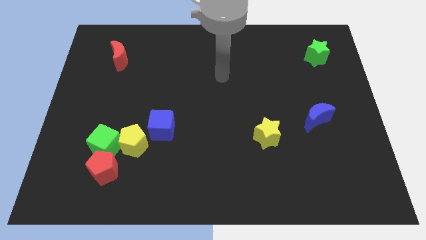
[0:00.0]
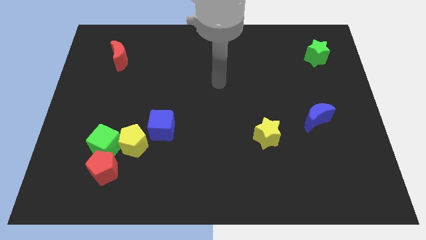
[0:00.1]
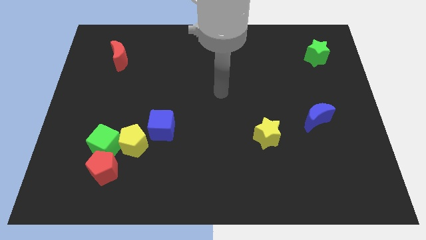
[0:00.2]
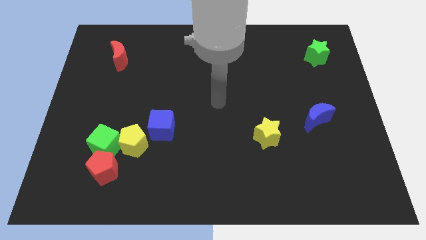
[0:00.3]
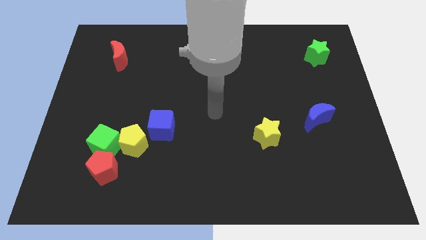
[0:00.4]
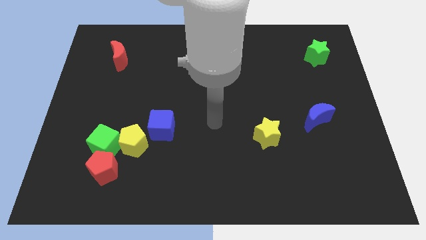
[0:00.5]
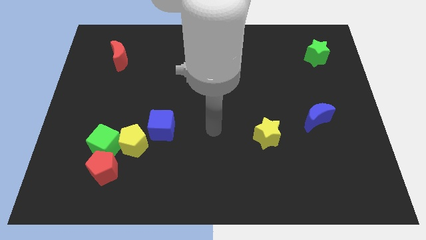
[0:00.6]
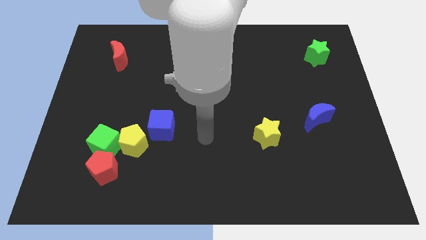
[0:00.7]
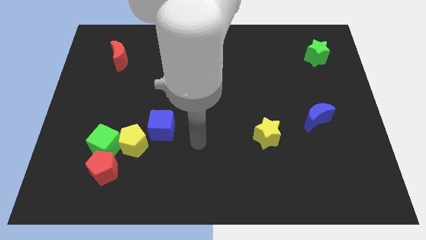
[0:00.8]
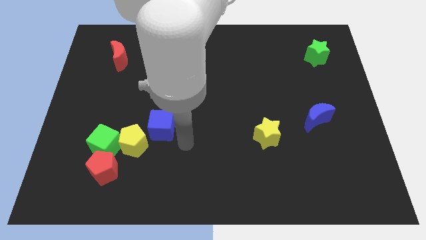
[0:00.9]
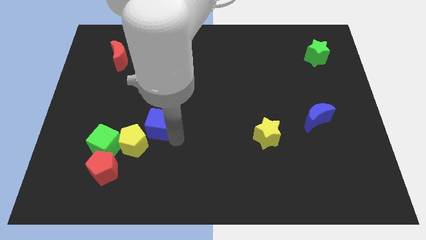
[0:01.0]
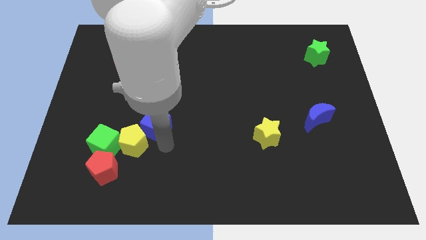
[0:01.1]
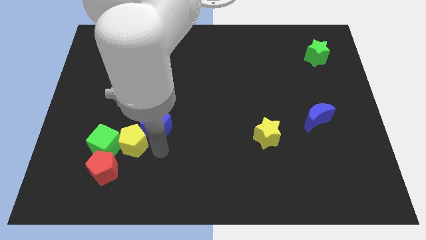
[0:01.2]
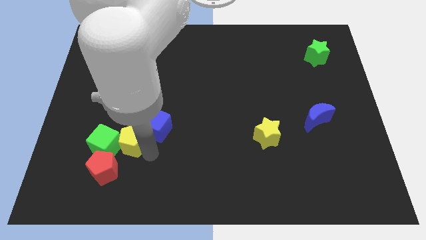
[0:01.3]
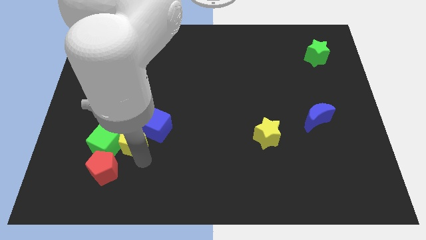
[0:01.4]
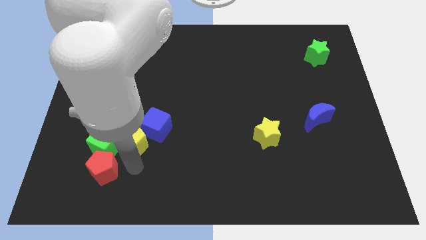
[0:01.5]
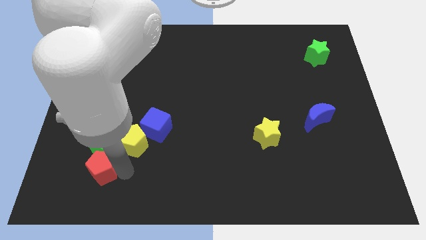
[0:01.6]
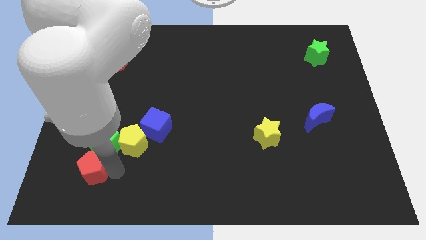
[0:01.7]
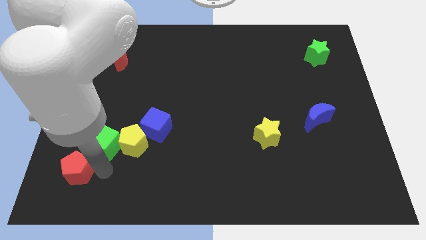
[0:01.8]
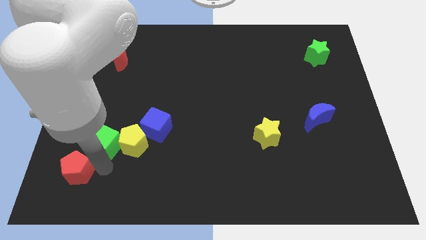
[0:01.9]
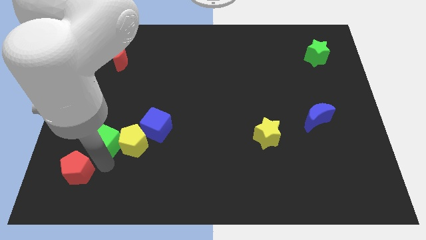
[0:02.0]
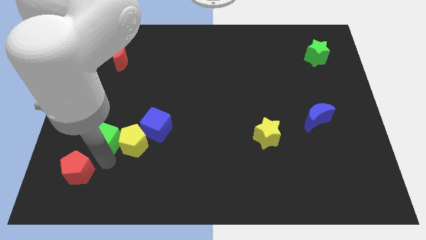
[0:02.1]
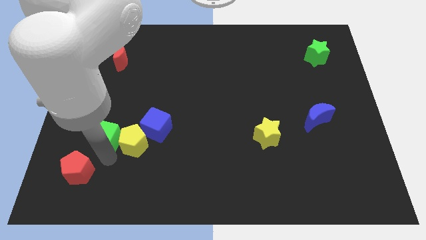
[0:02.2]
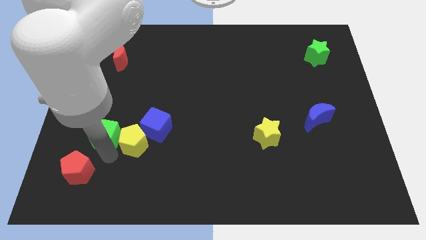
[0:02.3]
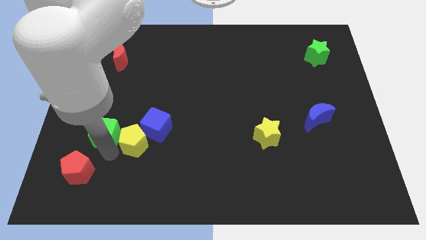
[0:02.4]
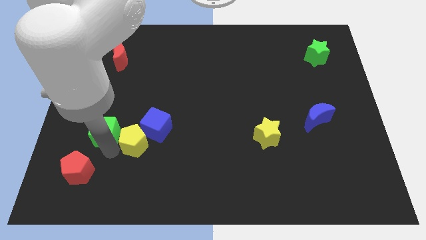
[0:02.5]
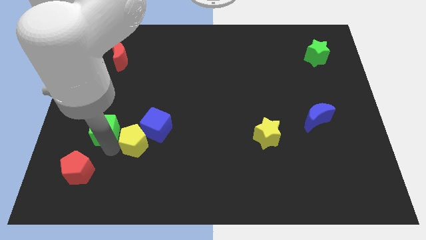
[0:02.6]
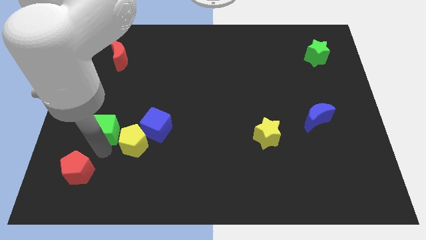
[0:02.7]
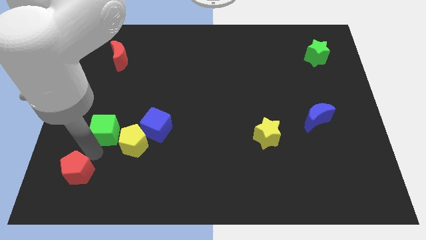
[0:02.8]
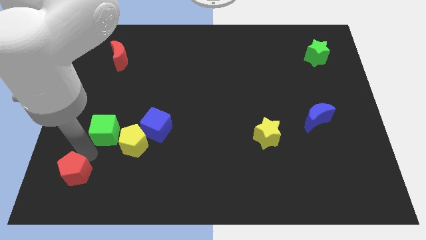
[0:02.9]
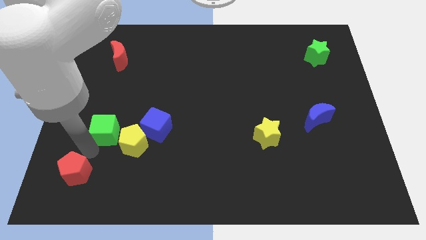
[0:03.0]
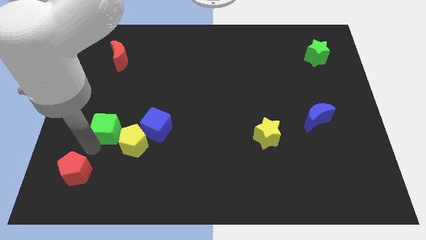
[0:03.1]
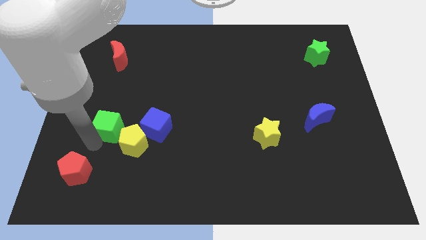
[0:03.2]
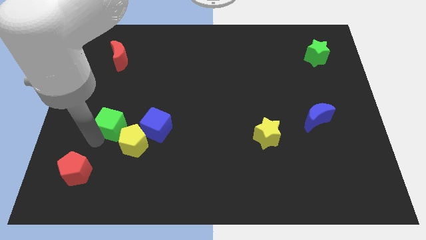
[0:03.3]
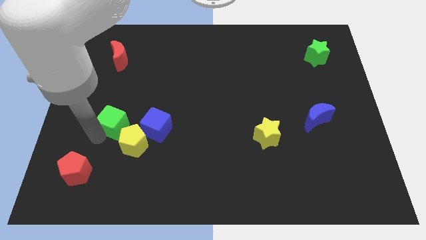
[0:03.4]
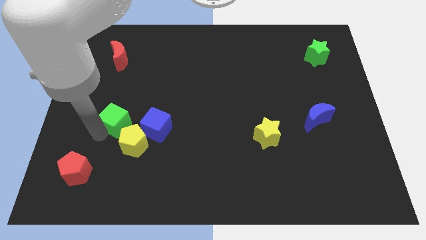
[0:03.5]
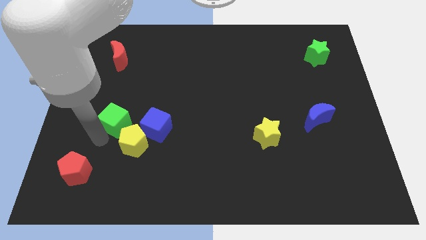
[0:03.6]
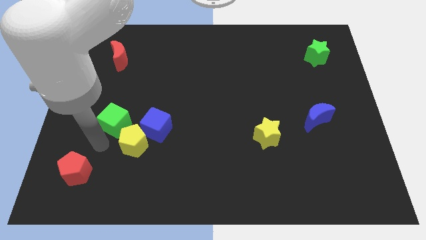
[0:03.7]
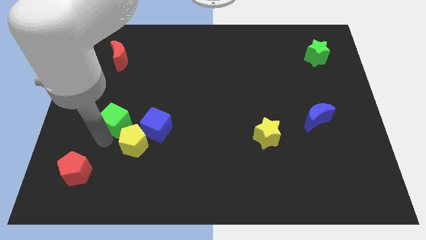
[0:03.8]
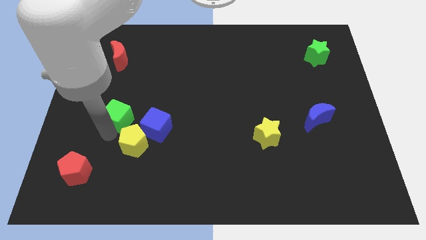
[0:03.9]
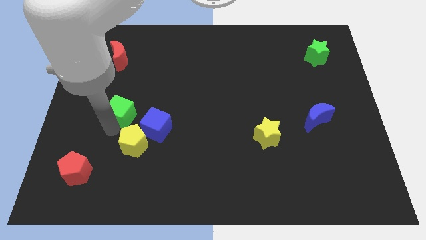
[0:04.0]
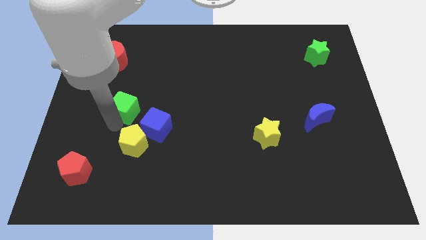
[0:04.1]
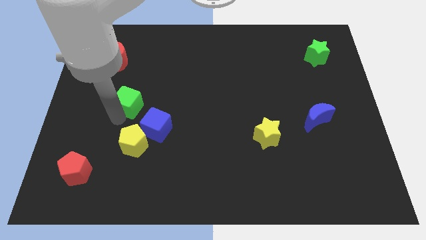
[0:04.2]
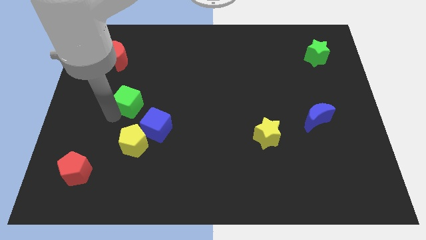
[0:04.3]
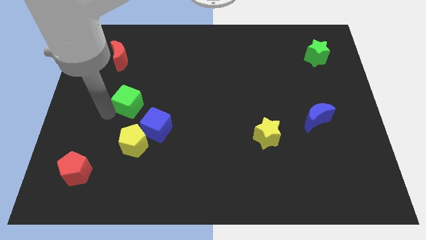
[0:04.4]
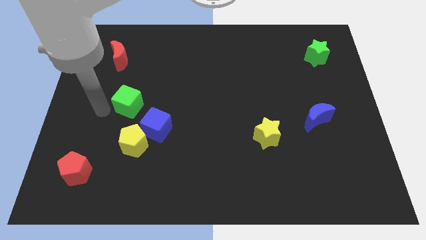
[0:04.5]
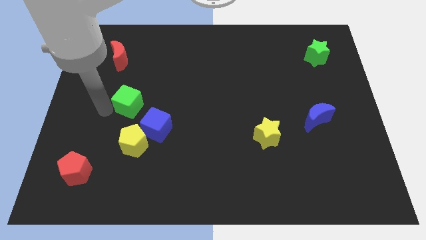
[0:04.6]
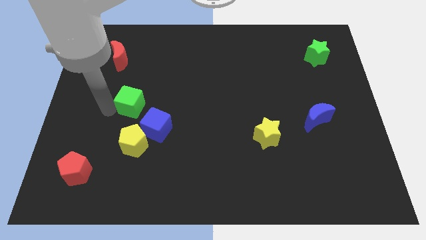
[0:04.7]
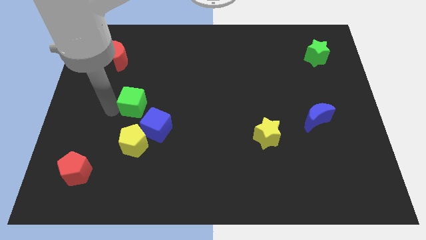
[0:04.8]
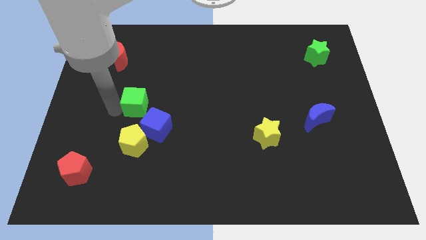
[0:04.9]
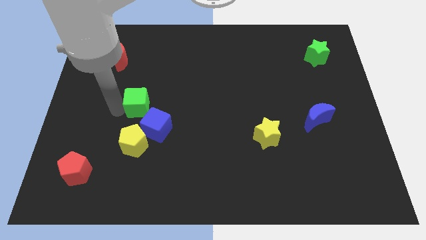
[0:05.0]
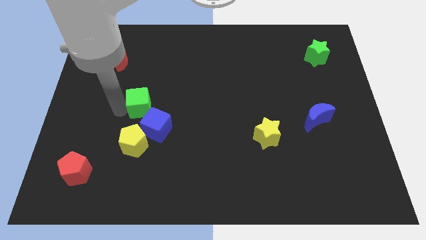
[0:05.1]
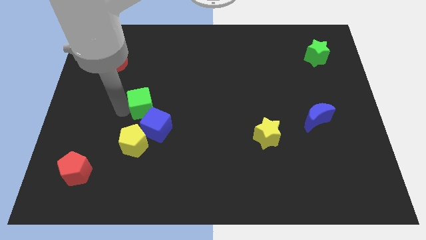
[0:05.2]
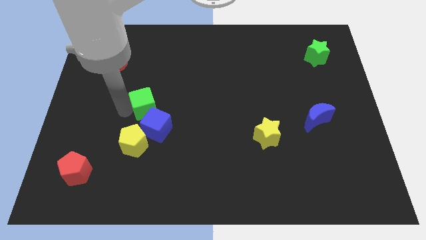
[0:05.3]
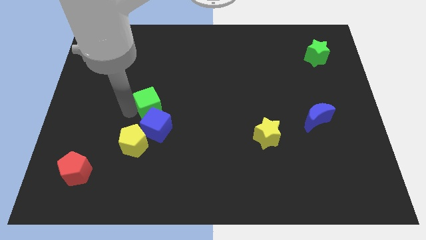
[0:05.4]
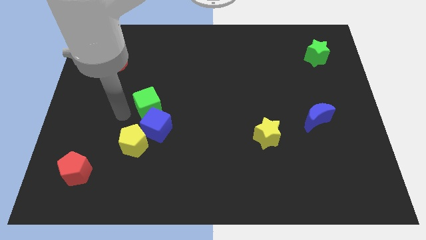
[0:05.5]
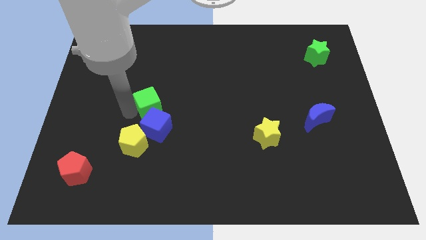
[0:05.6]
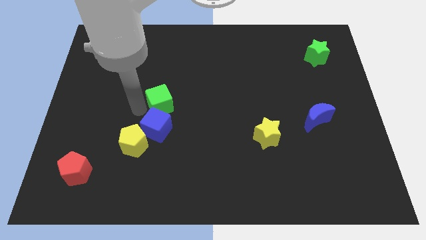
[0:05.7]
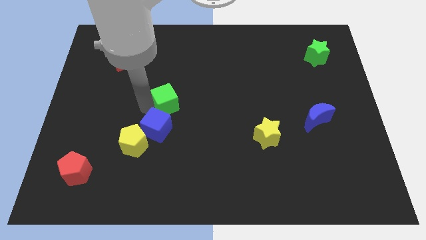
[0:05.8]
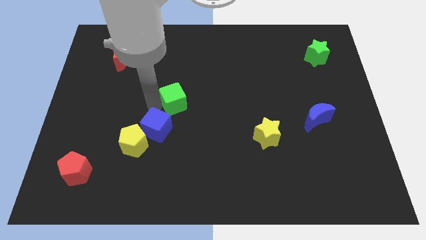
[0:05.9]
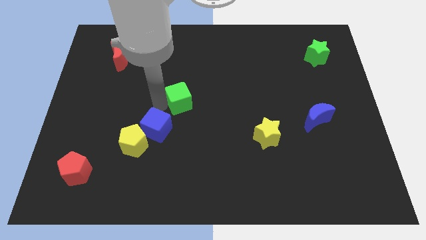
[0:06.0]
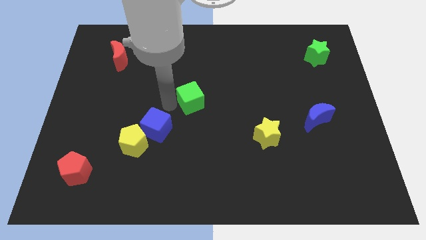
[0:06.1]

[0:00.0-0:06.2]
push the green cube upwards and right diagonally

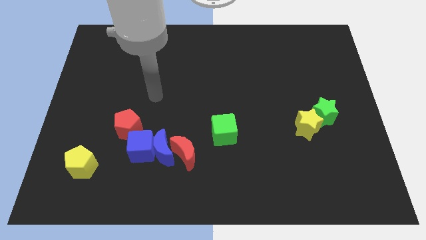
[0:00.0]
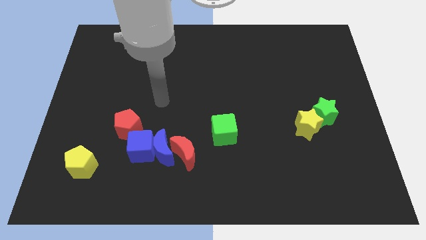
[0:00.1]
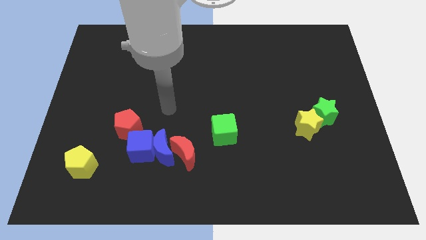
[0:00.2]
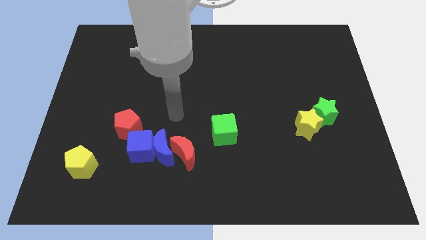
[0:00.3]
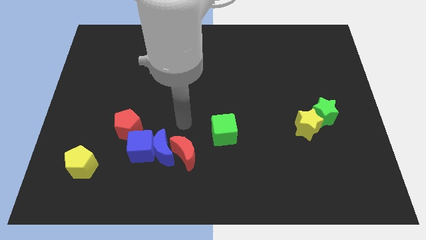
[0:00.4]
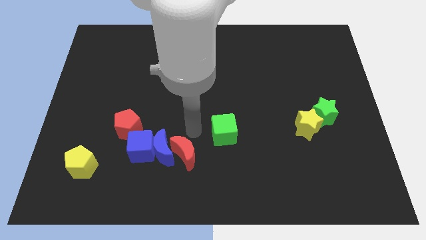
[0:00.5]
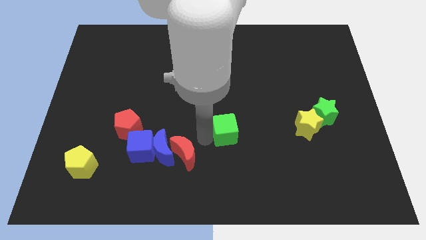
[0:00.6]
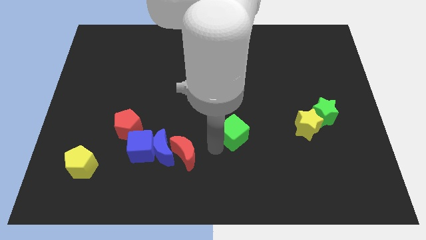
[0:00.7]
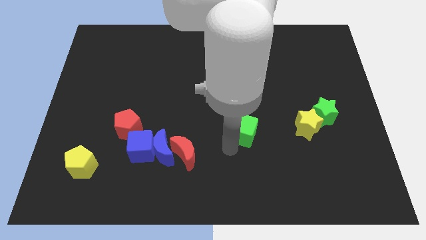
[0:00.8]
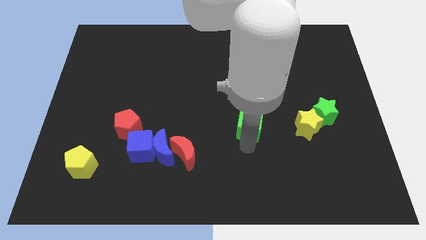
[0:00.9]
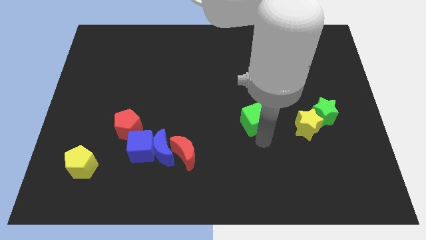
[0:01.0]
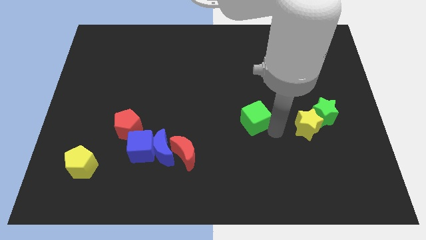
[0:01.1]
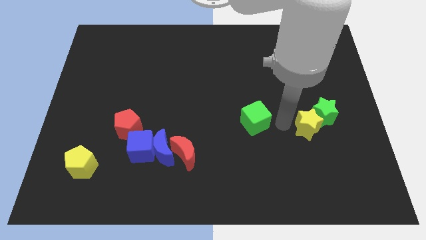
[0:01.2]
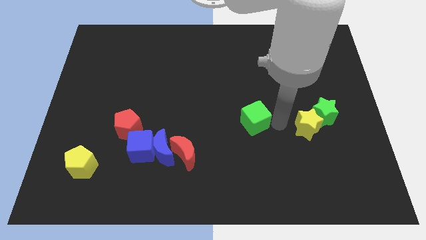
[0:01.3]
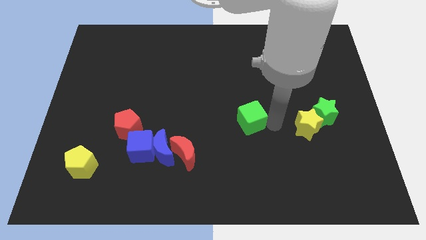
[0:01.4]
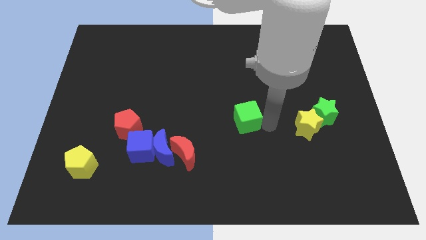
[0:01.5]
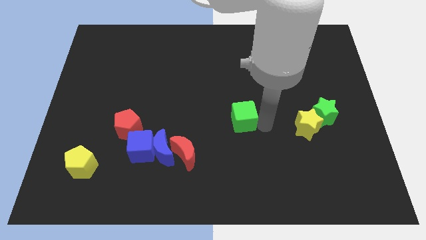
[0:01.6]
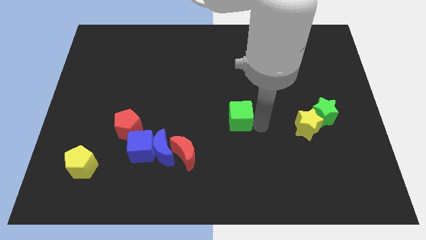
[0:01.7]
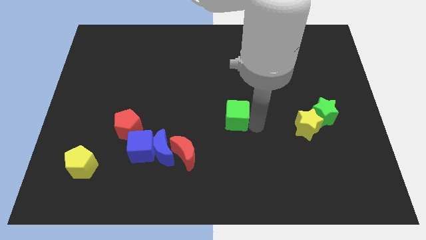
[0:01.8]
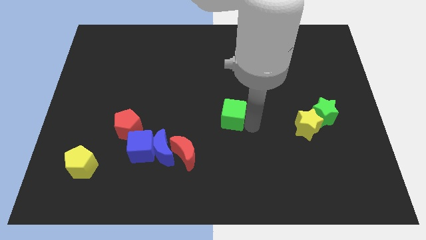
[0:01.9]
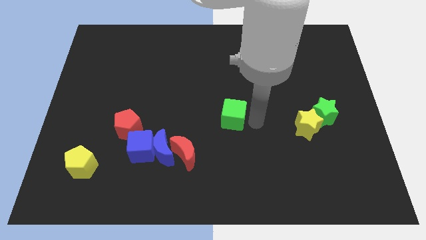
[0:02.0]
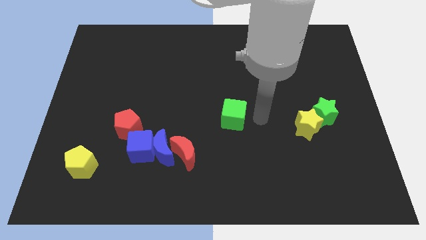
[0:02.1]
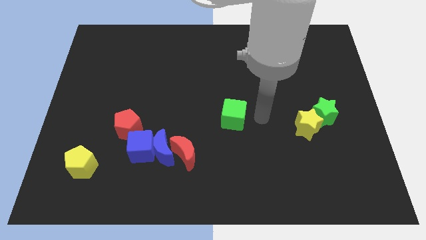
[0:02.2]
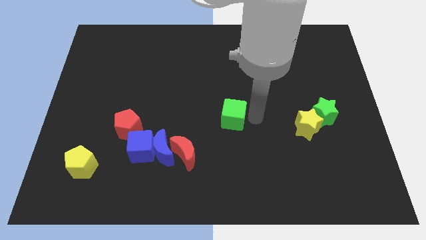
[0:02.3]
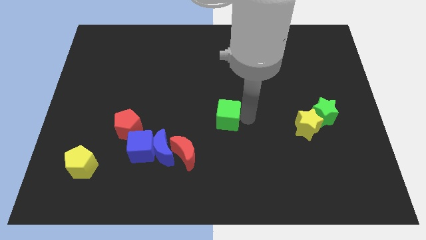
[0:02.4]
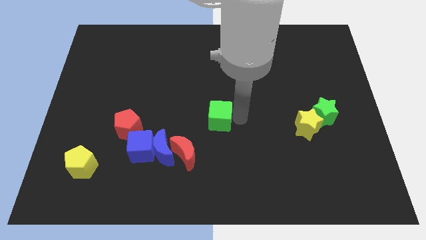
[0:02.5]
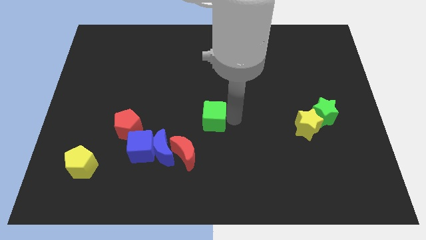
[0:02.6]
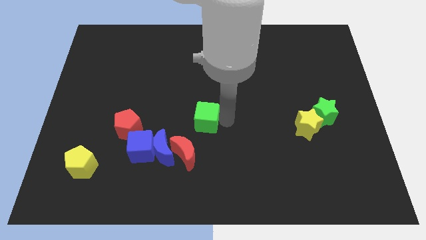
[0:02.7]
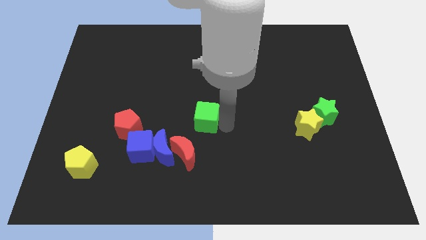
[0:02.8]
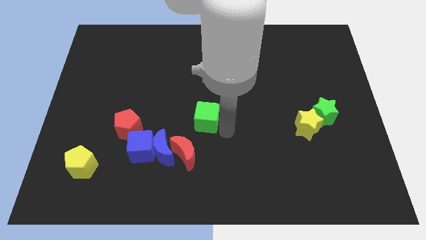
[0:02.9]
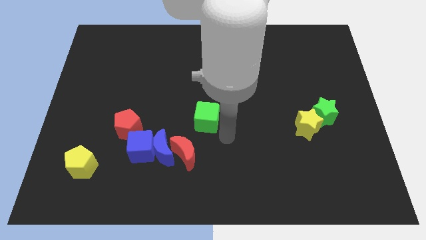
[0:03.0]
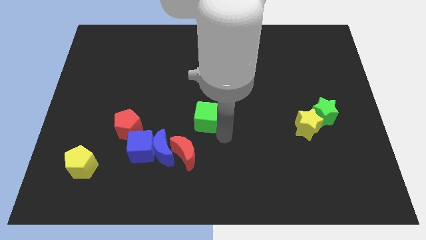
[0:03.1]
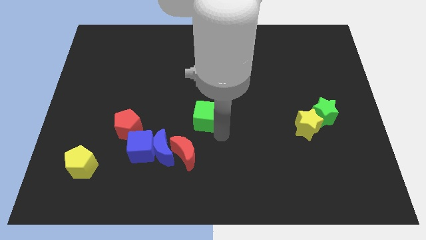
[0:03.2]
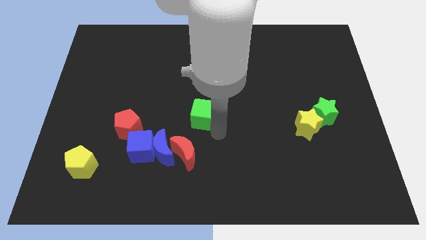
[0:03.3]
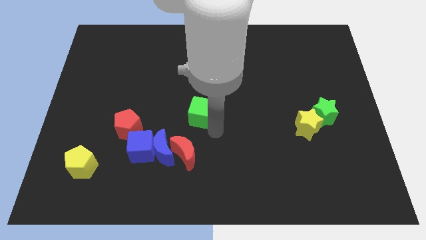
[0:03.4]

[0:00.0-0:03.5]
push the green cube somewhat diagonally up and to the left
